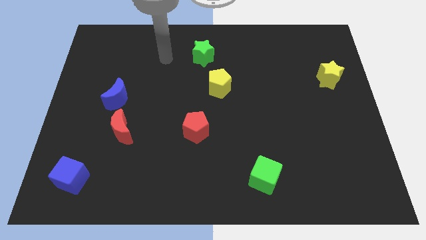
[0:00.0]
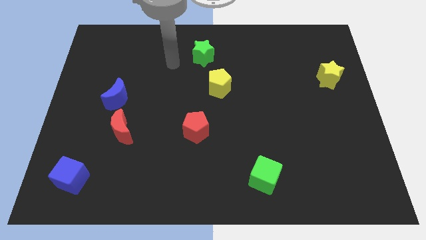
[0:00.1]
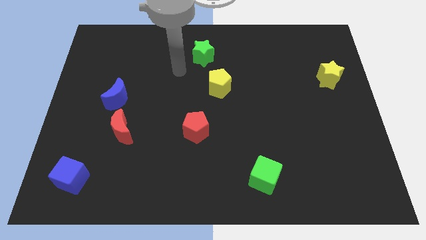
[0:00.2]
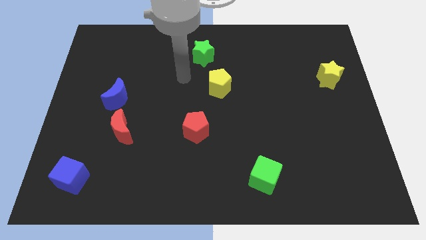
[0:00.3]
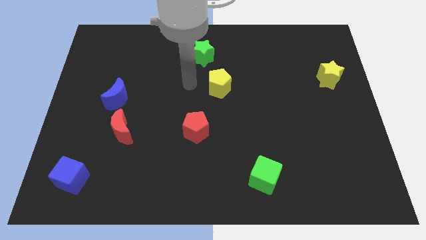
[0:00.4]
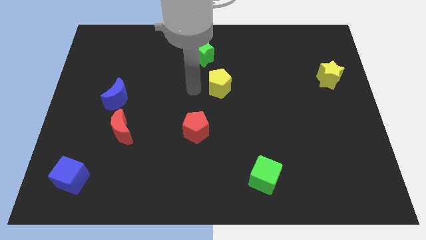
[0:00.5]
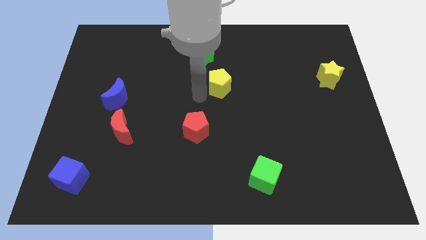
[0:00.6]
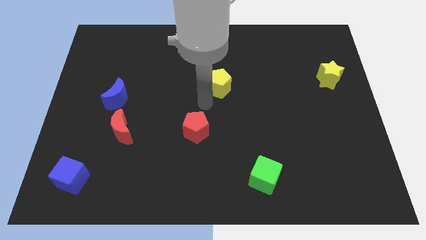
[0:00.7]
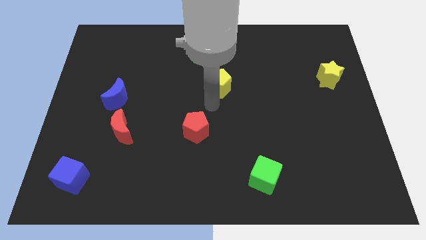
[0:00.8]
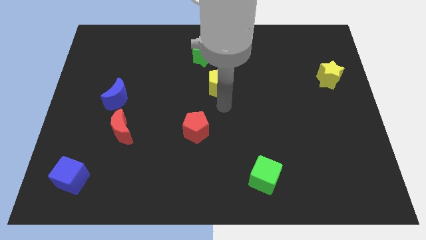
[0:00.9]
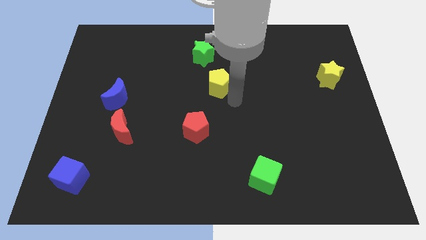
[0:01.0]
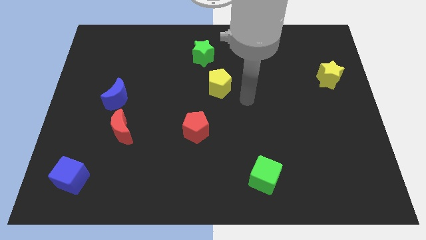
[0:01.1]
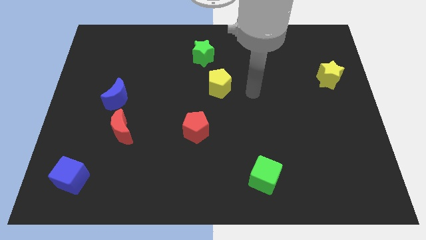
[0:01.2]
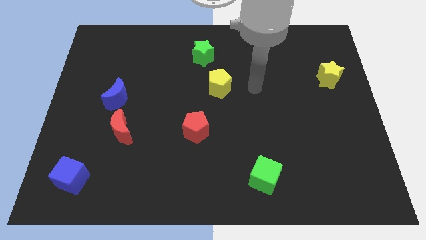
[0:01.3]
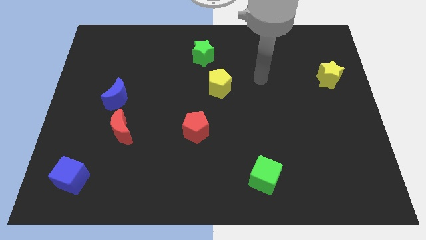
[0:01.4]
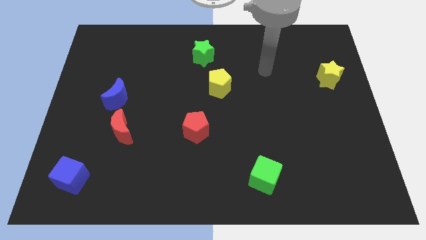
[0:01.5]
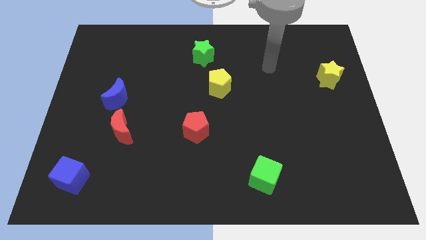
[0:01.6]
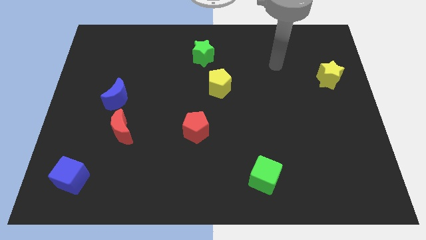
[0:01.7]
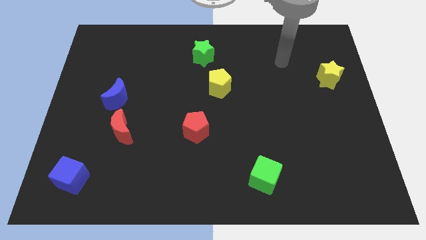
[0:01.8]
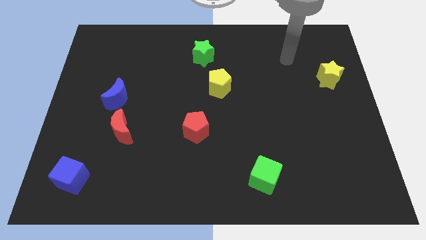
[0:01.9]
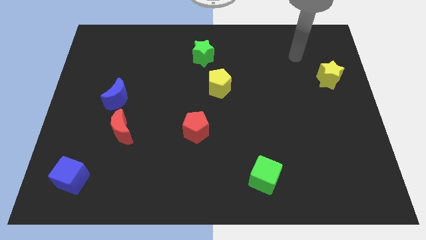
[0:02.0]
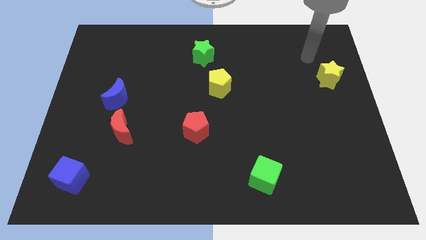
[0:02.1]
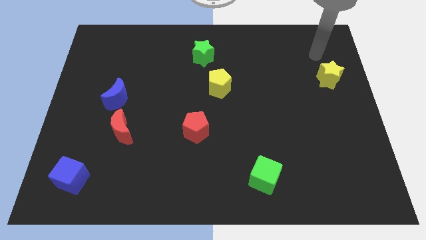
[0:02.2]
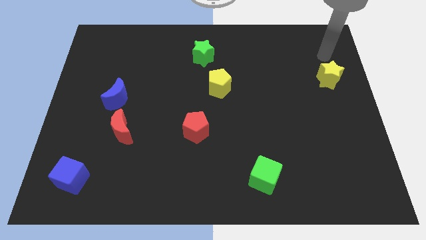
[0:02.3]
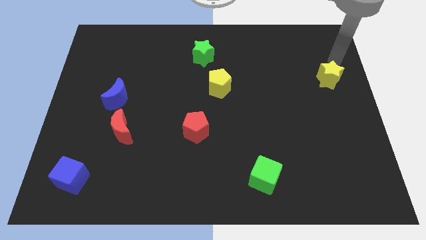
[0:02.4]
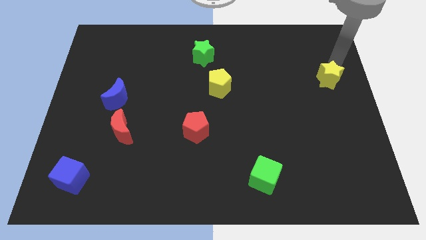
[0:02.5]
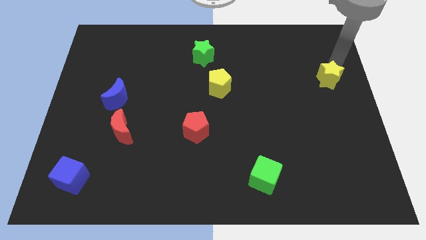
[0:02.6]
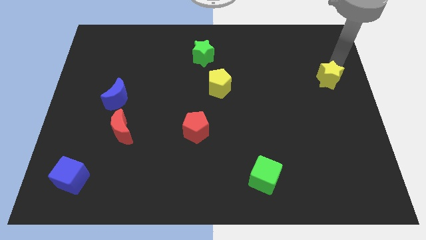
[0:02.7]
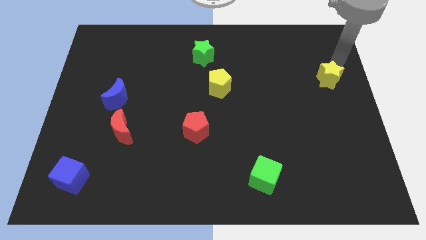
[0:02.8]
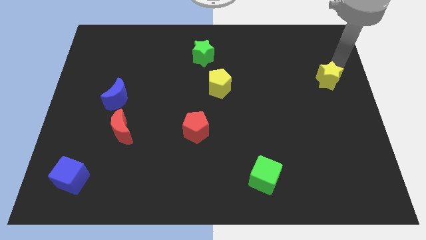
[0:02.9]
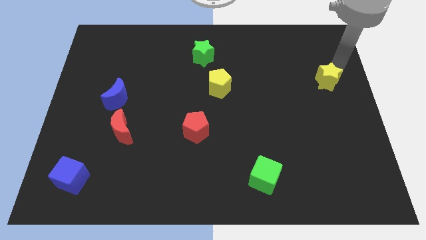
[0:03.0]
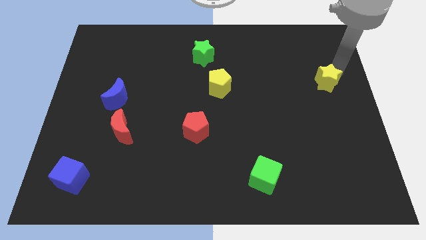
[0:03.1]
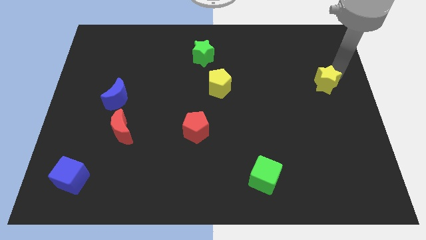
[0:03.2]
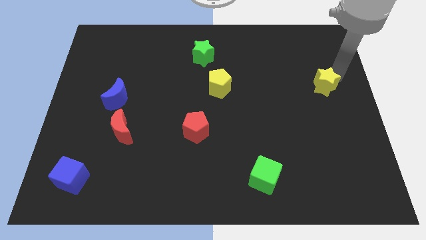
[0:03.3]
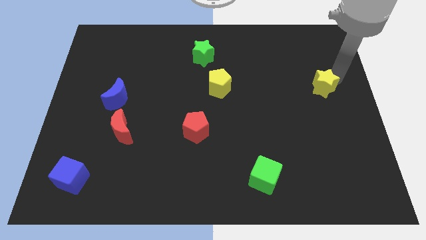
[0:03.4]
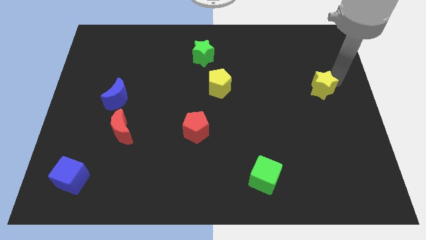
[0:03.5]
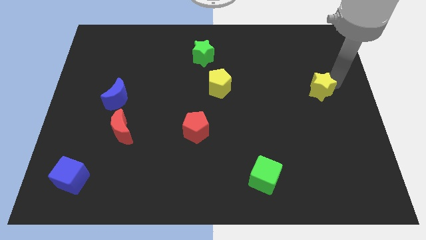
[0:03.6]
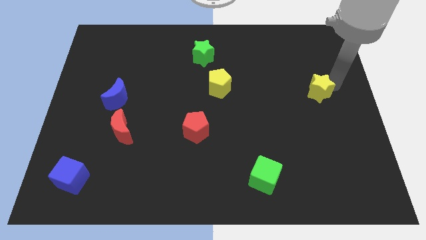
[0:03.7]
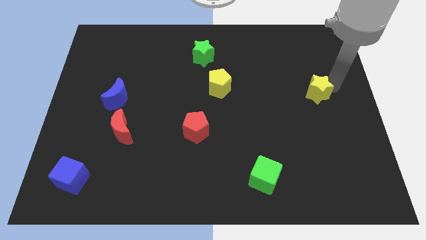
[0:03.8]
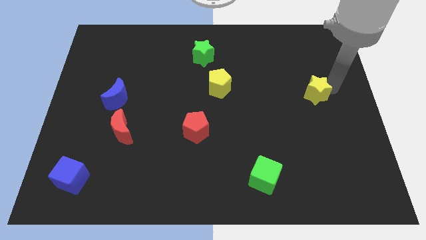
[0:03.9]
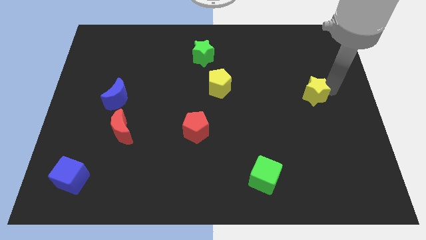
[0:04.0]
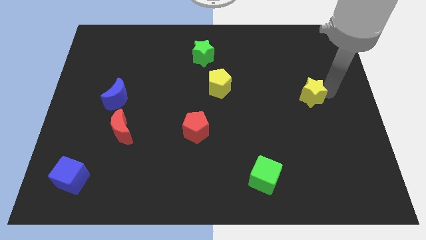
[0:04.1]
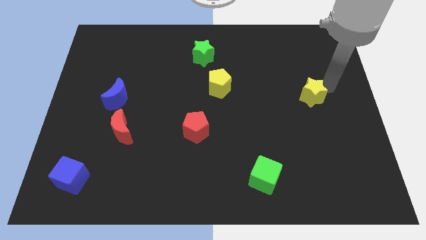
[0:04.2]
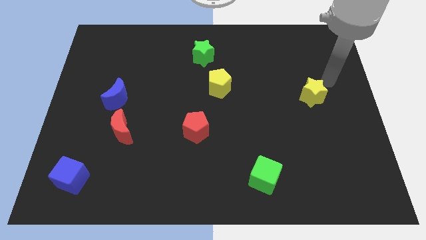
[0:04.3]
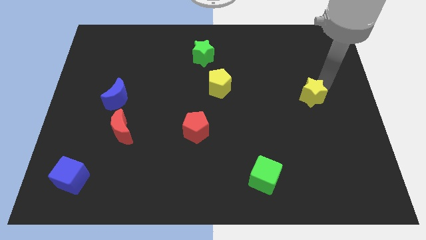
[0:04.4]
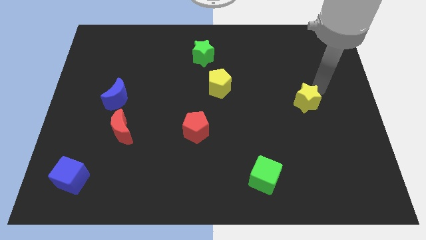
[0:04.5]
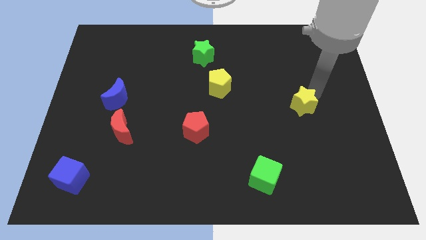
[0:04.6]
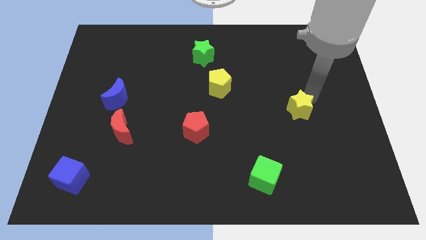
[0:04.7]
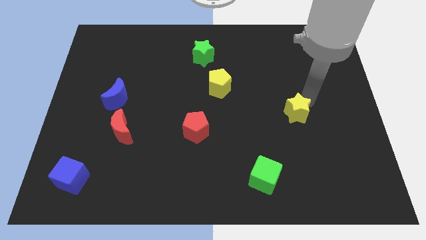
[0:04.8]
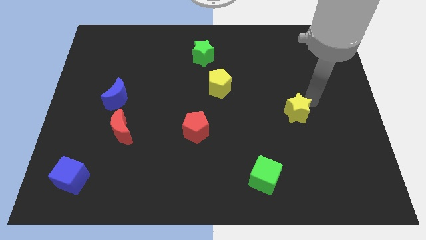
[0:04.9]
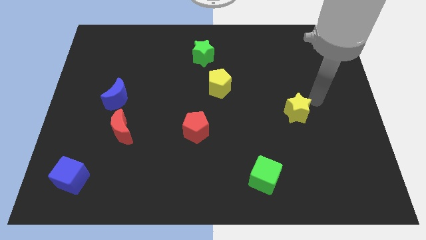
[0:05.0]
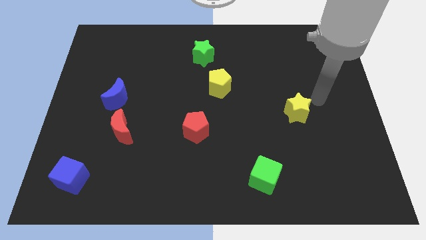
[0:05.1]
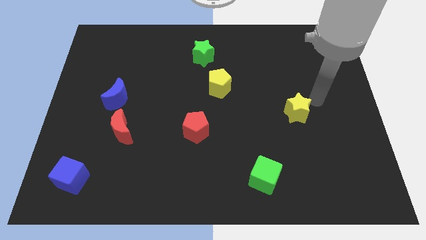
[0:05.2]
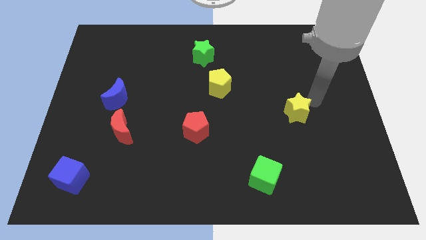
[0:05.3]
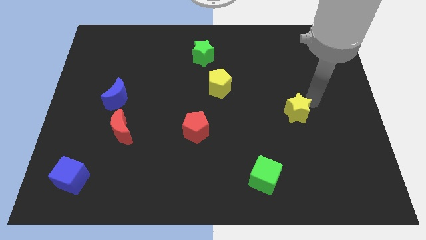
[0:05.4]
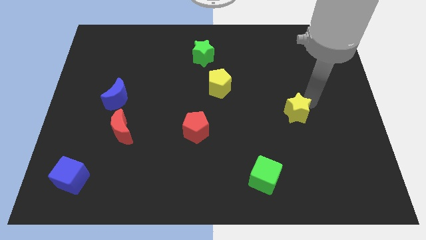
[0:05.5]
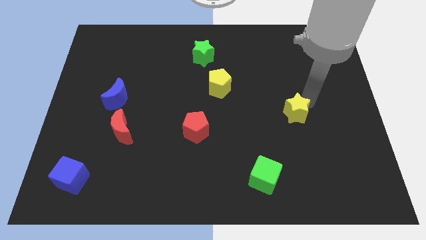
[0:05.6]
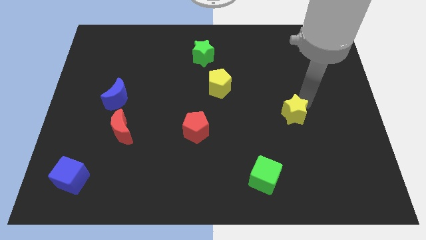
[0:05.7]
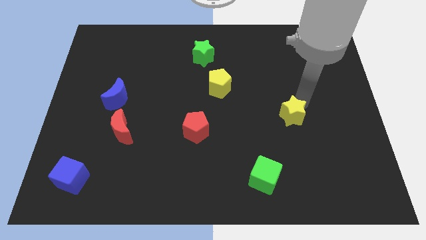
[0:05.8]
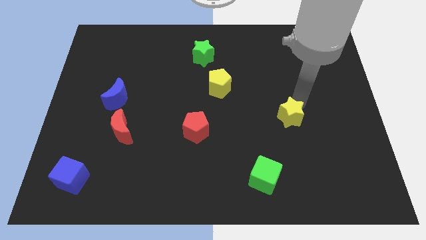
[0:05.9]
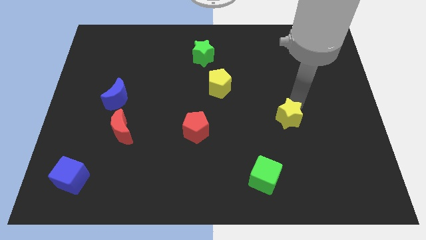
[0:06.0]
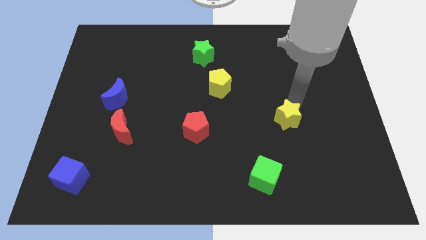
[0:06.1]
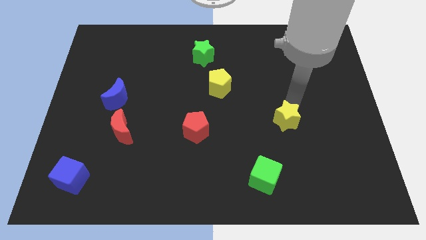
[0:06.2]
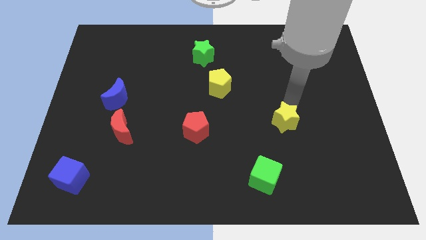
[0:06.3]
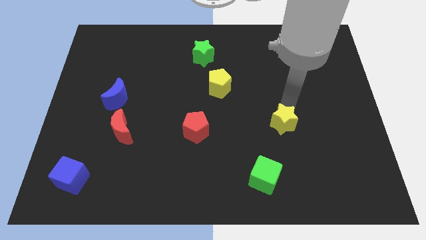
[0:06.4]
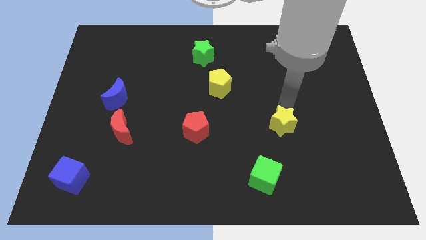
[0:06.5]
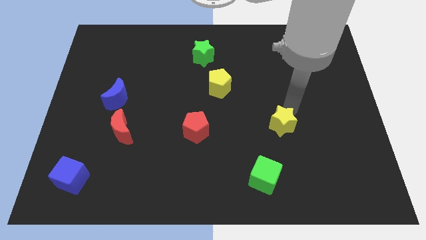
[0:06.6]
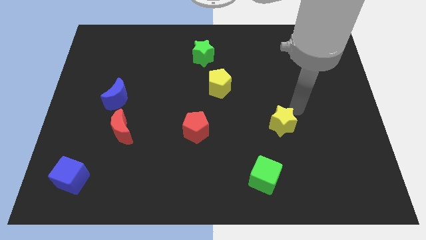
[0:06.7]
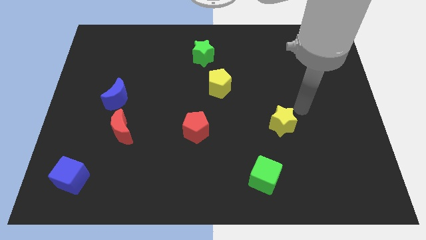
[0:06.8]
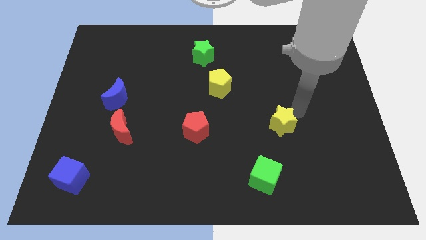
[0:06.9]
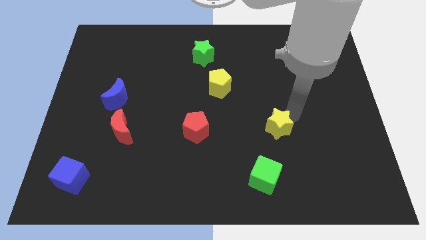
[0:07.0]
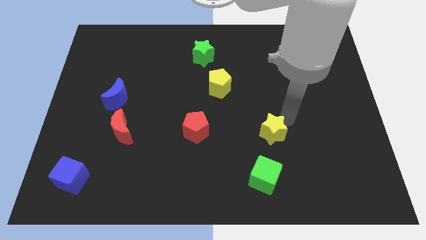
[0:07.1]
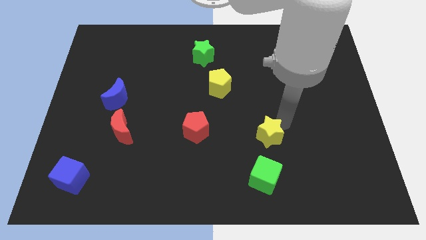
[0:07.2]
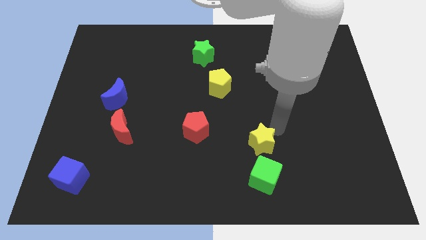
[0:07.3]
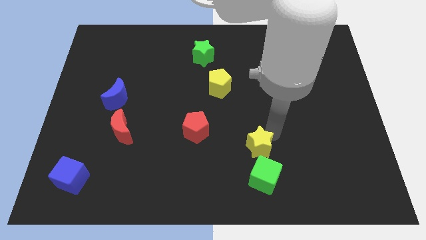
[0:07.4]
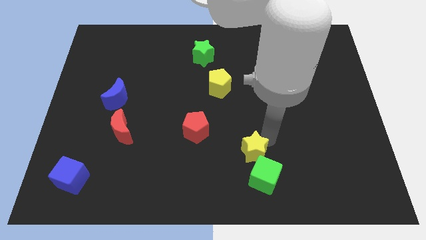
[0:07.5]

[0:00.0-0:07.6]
push the yellow star to the top left side of the green cube
